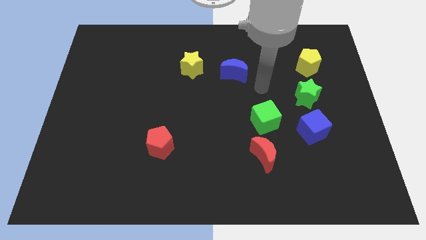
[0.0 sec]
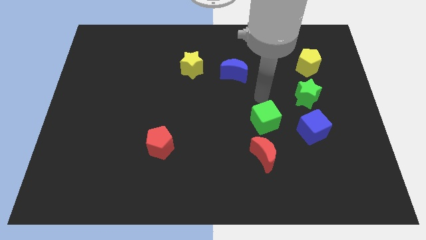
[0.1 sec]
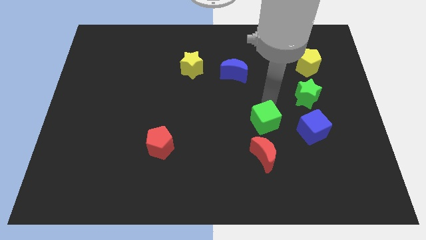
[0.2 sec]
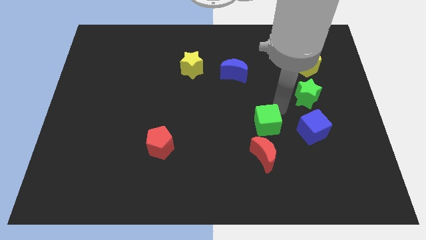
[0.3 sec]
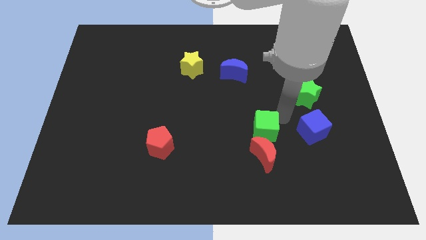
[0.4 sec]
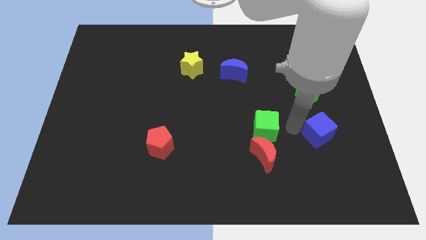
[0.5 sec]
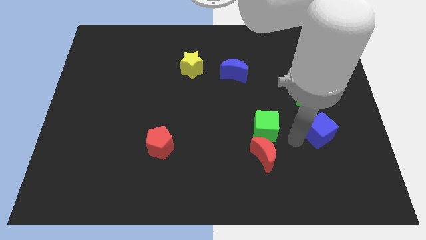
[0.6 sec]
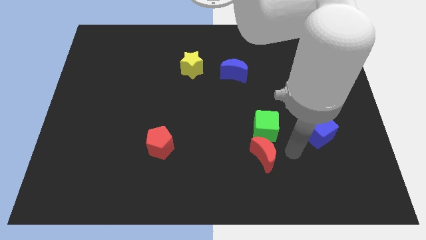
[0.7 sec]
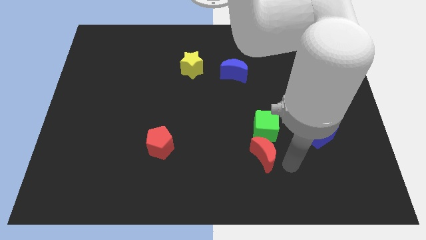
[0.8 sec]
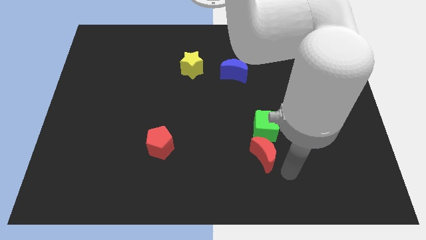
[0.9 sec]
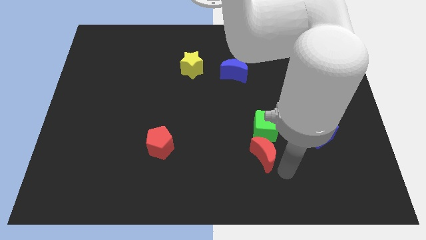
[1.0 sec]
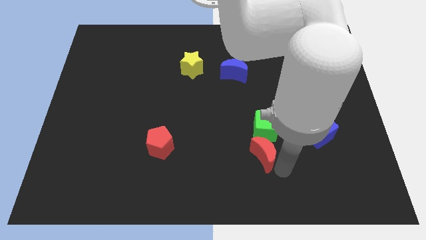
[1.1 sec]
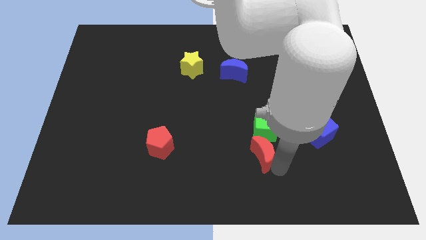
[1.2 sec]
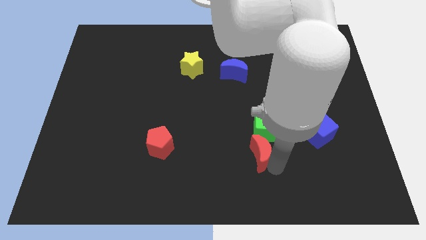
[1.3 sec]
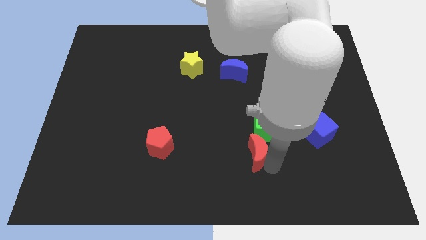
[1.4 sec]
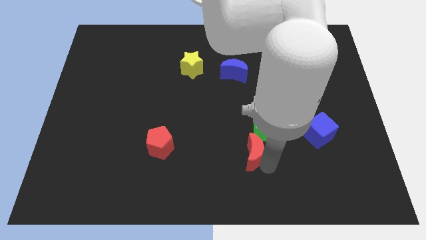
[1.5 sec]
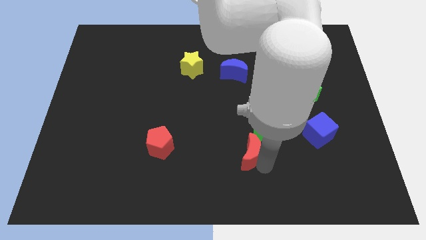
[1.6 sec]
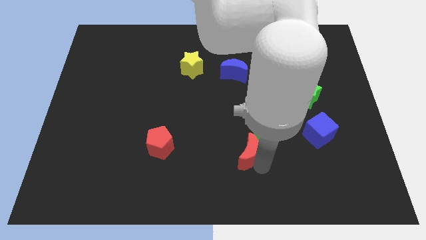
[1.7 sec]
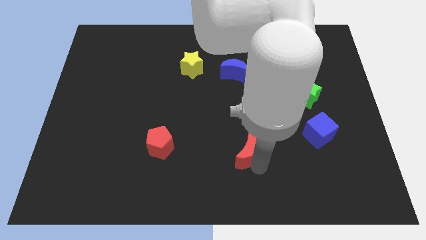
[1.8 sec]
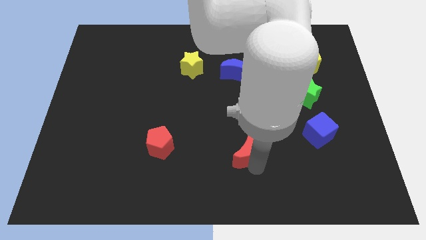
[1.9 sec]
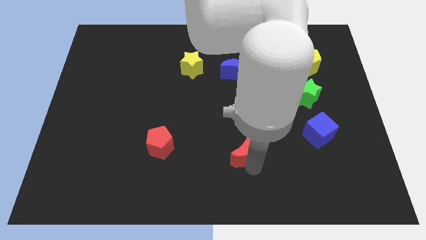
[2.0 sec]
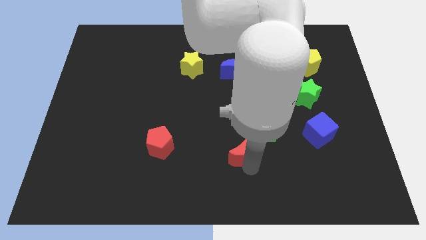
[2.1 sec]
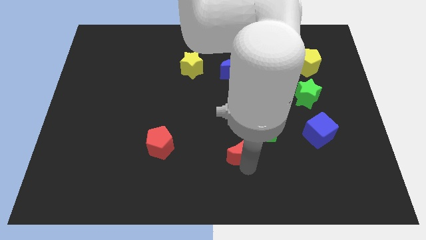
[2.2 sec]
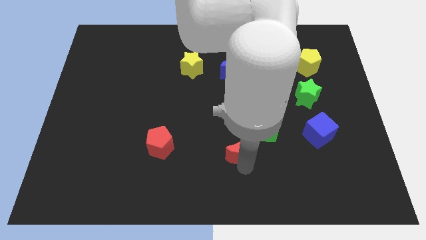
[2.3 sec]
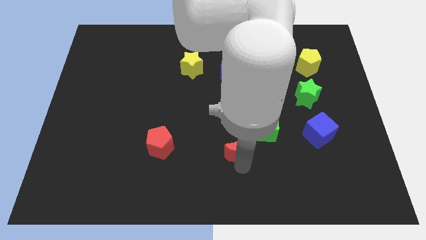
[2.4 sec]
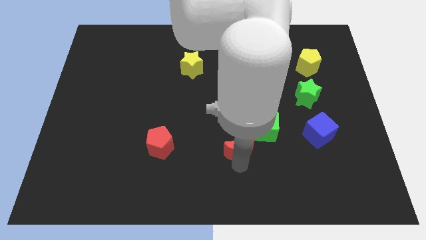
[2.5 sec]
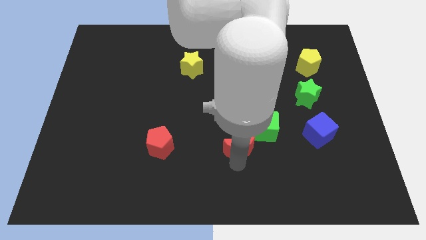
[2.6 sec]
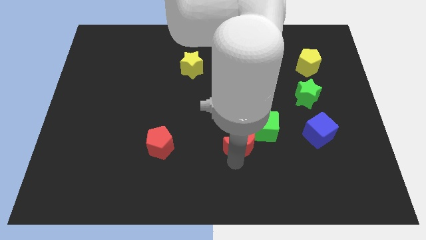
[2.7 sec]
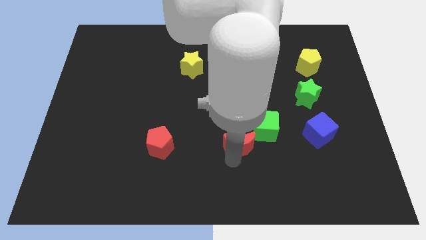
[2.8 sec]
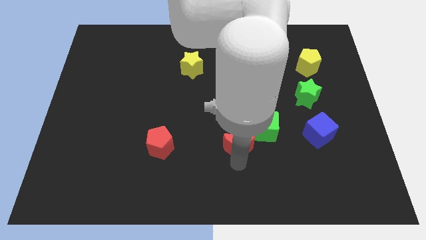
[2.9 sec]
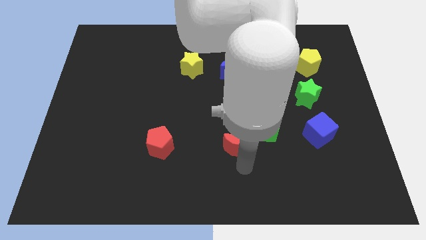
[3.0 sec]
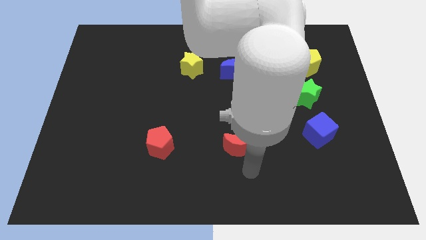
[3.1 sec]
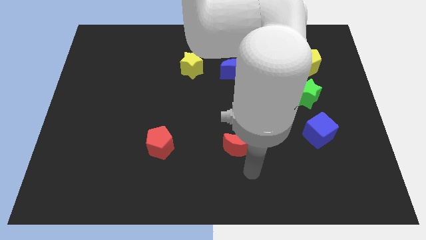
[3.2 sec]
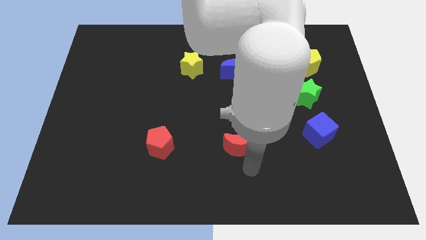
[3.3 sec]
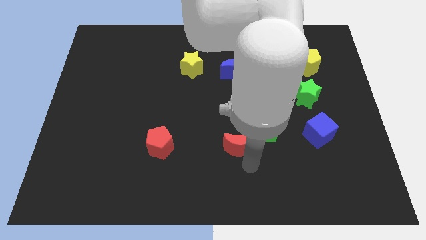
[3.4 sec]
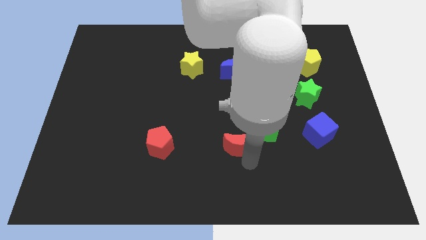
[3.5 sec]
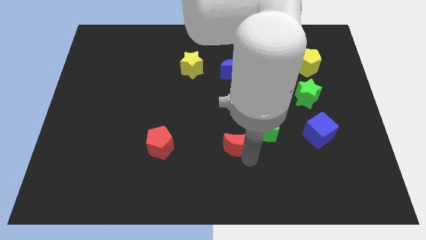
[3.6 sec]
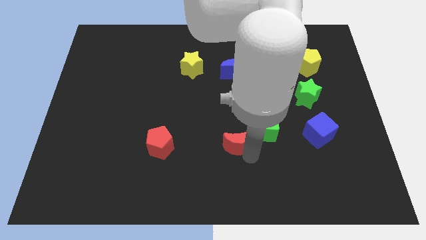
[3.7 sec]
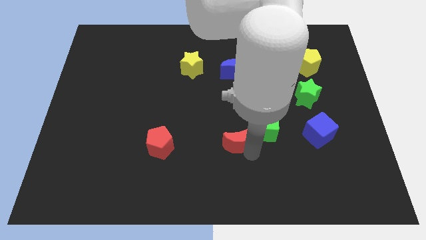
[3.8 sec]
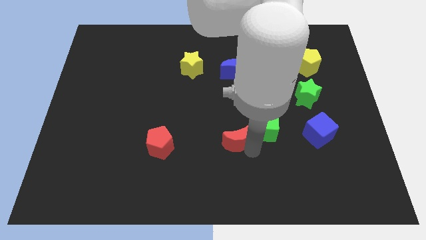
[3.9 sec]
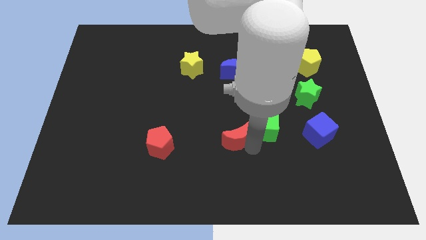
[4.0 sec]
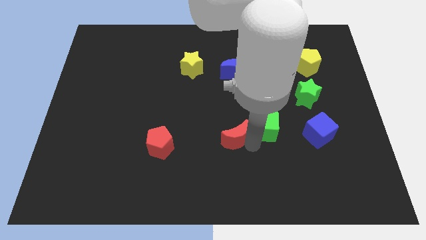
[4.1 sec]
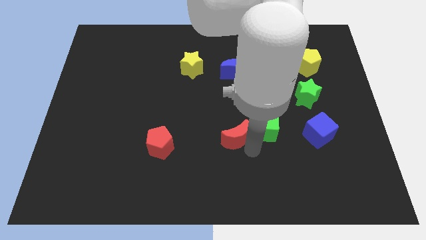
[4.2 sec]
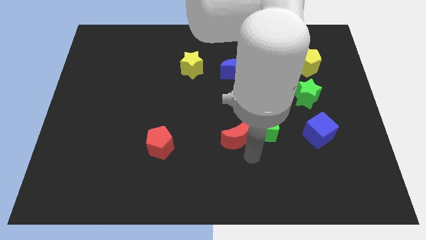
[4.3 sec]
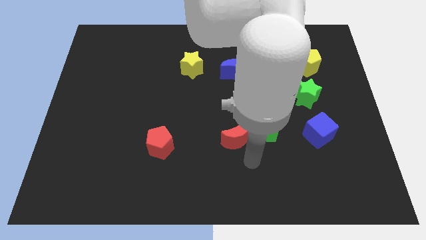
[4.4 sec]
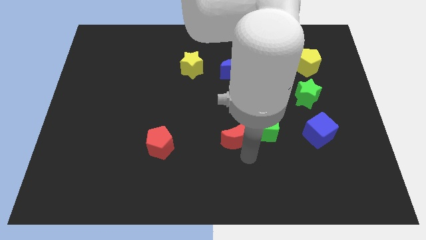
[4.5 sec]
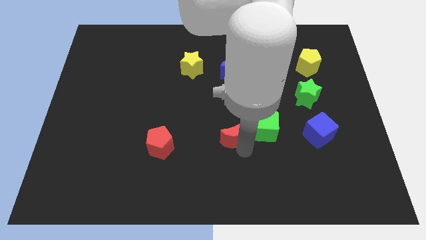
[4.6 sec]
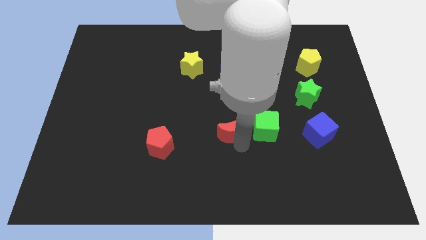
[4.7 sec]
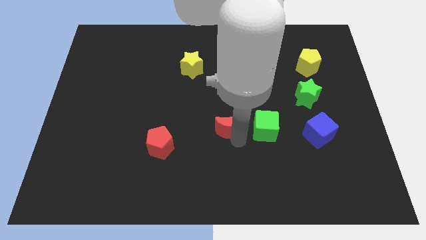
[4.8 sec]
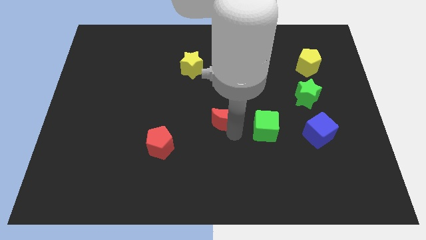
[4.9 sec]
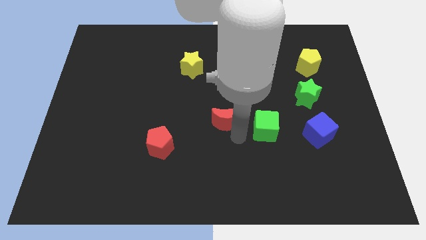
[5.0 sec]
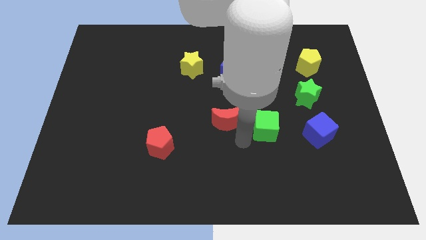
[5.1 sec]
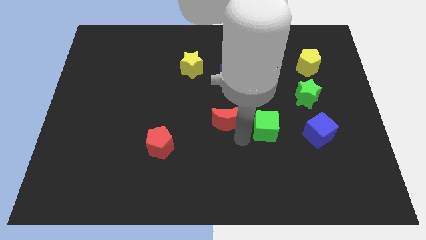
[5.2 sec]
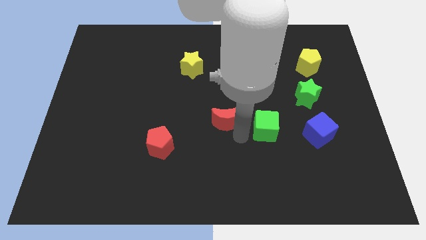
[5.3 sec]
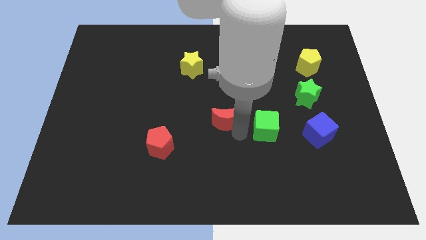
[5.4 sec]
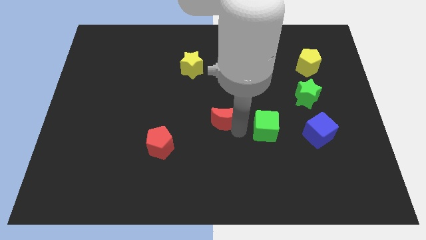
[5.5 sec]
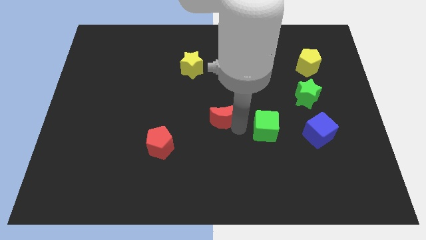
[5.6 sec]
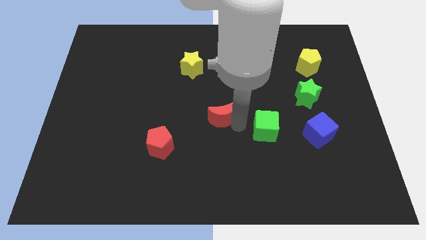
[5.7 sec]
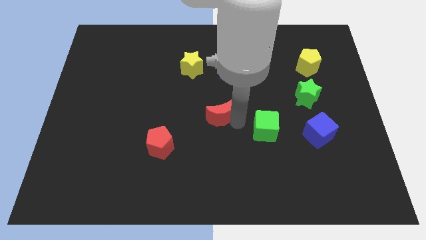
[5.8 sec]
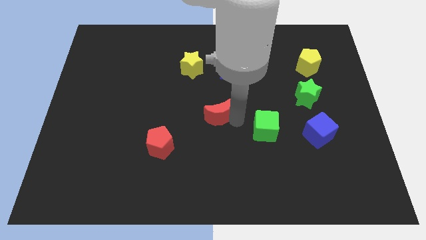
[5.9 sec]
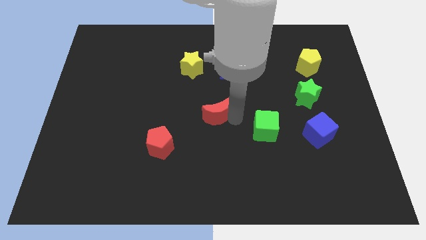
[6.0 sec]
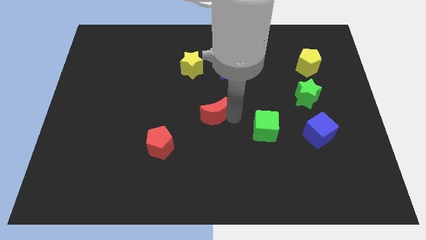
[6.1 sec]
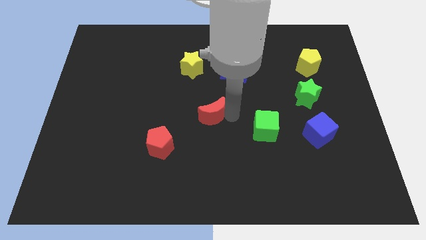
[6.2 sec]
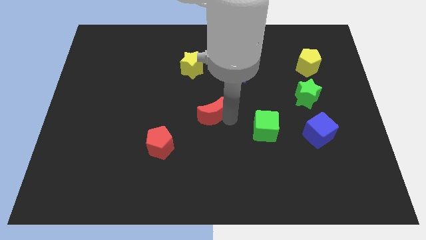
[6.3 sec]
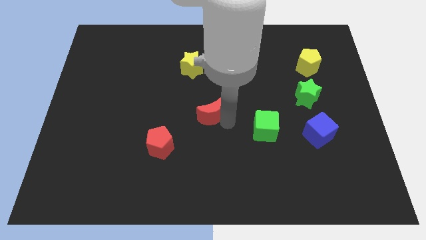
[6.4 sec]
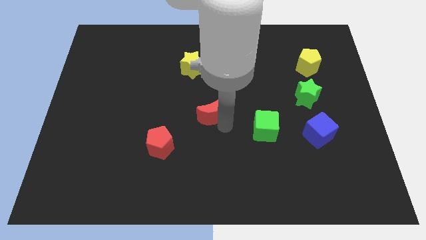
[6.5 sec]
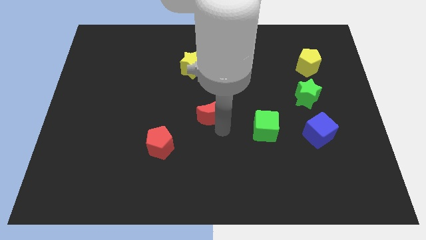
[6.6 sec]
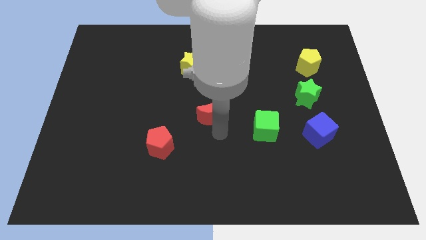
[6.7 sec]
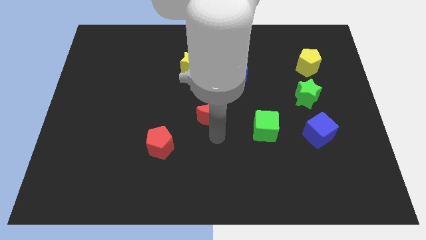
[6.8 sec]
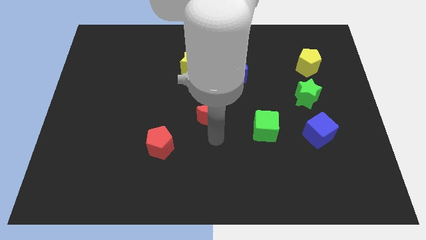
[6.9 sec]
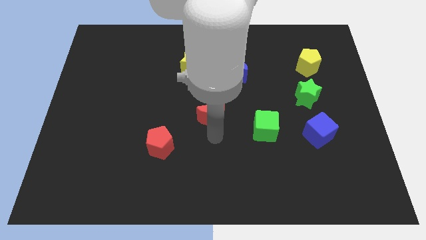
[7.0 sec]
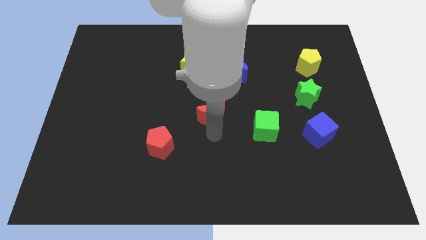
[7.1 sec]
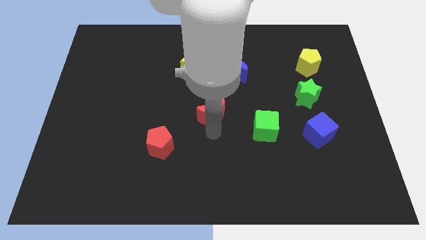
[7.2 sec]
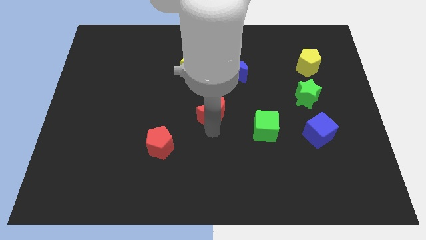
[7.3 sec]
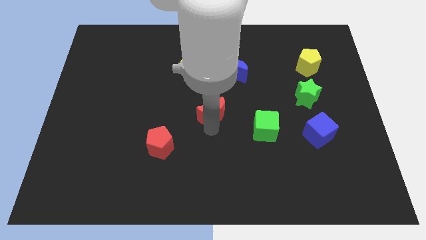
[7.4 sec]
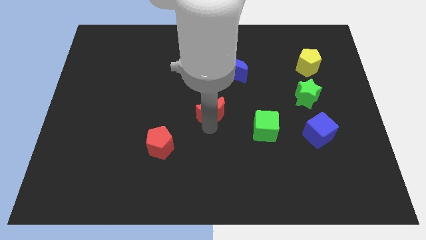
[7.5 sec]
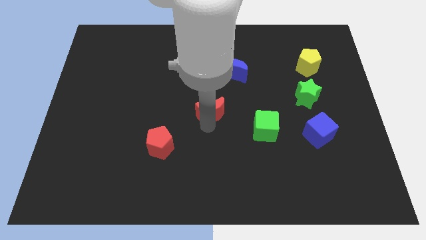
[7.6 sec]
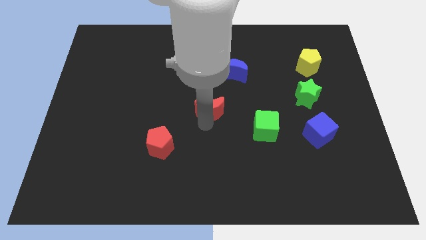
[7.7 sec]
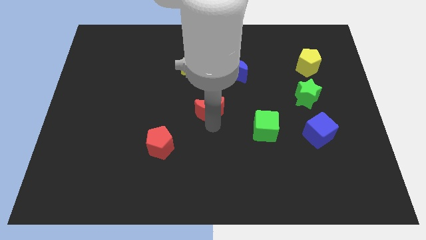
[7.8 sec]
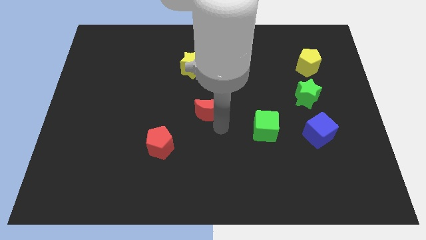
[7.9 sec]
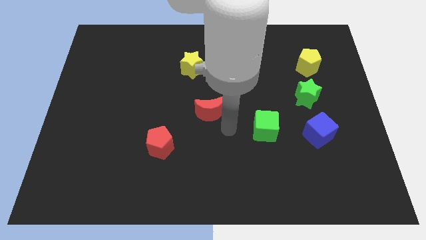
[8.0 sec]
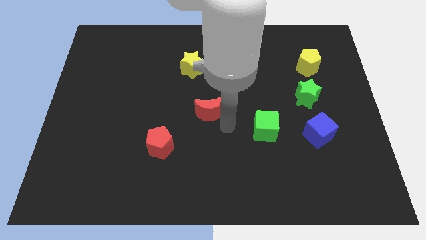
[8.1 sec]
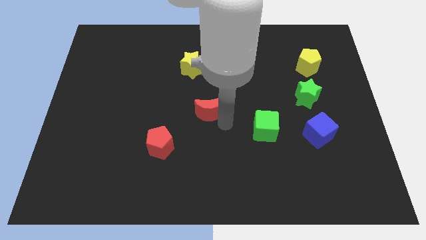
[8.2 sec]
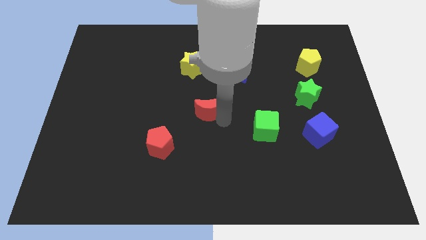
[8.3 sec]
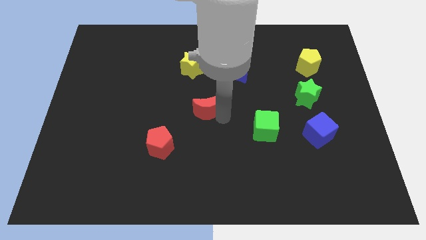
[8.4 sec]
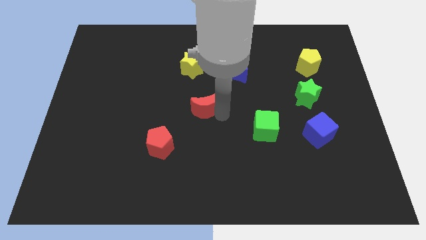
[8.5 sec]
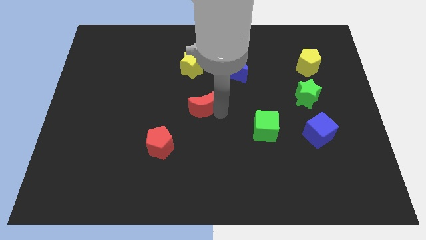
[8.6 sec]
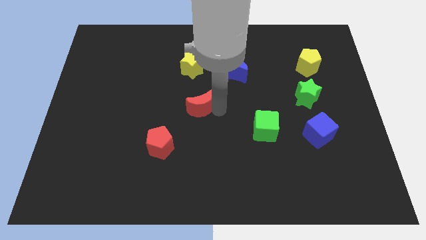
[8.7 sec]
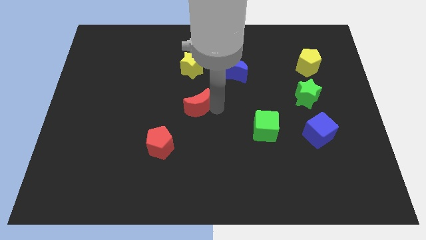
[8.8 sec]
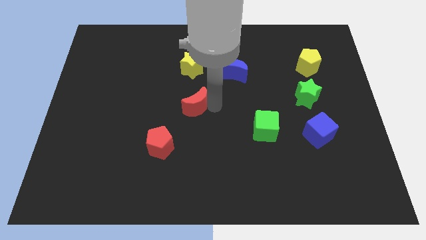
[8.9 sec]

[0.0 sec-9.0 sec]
slide the red moon upwards and left diagonally
